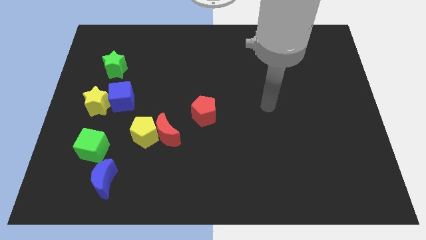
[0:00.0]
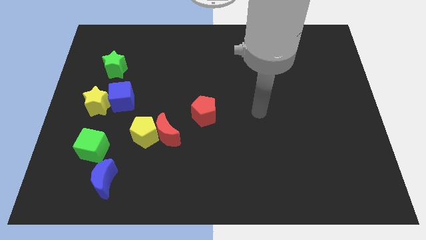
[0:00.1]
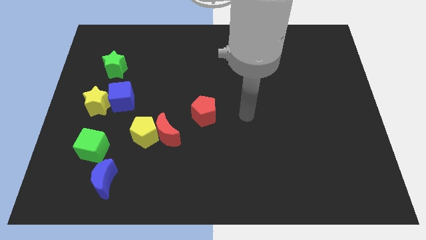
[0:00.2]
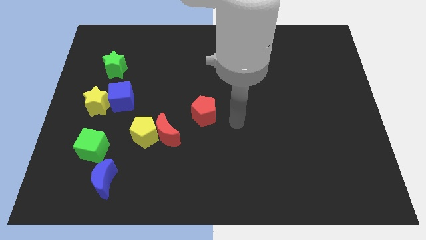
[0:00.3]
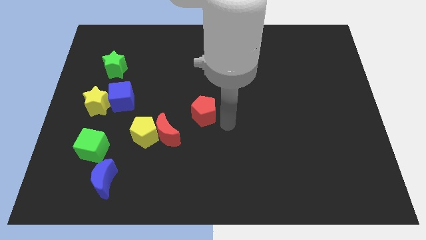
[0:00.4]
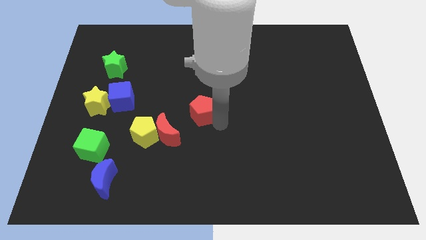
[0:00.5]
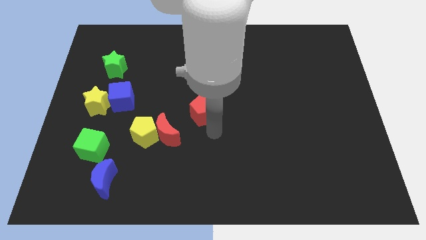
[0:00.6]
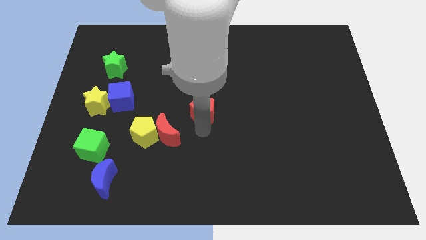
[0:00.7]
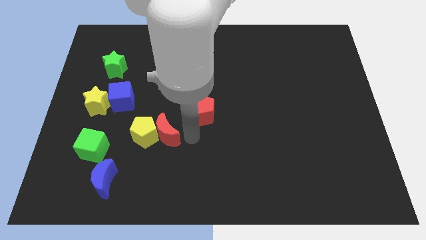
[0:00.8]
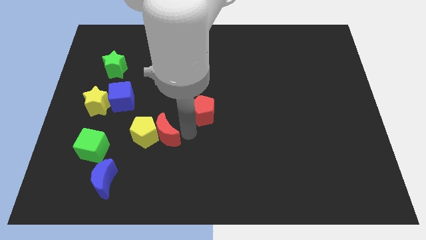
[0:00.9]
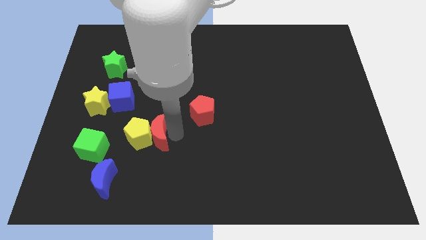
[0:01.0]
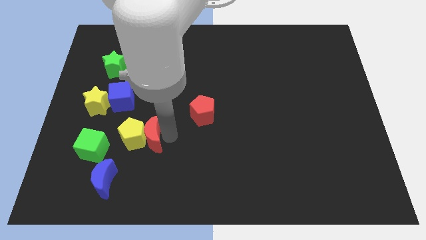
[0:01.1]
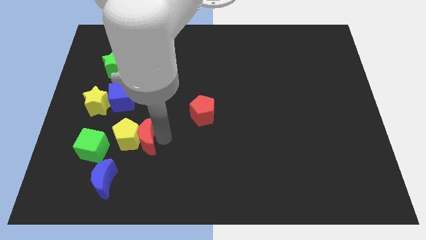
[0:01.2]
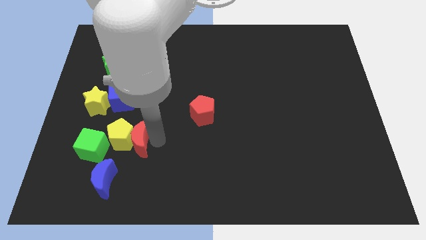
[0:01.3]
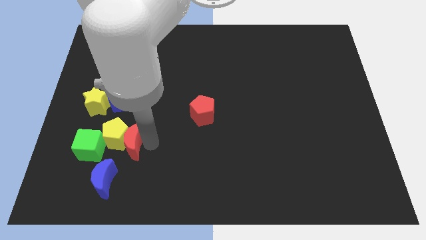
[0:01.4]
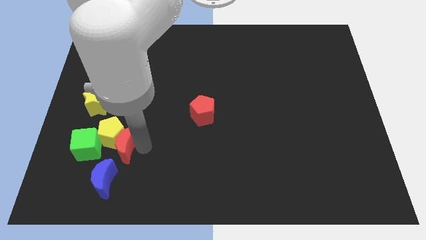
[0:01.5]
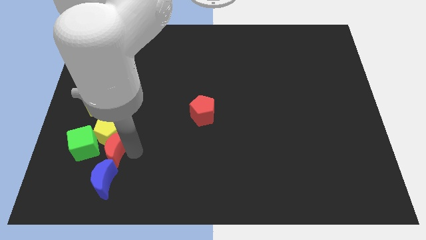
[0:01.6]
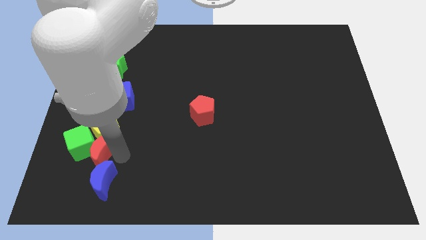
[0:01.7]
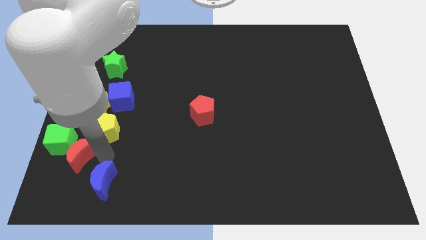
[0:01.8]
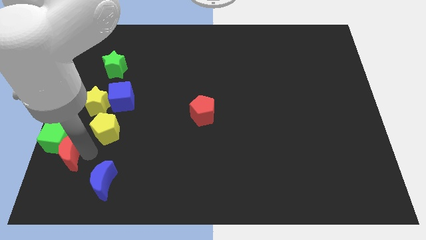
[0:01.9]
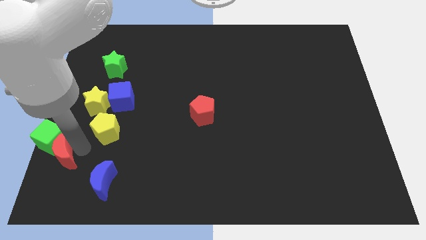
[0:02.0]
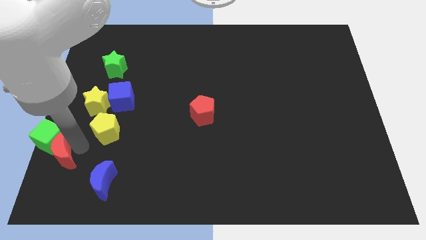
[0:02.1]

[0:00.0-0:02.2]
separate the yellow pentagon from the red moon

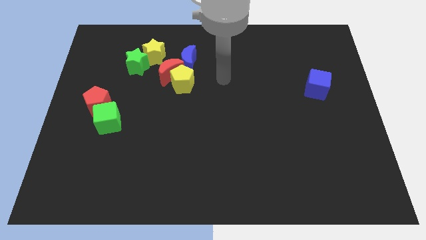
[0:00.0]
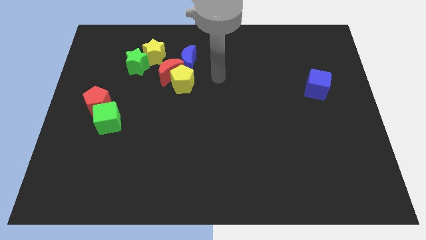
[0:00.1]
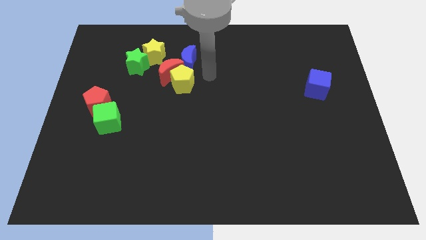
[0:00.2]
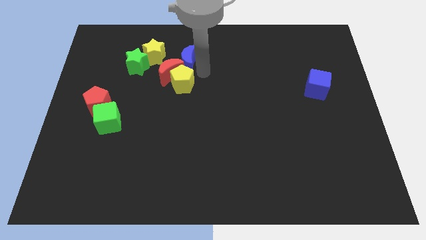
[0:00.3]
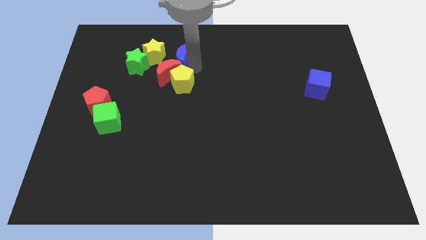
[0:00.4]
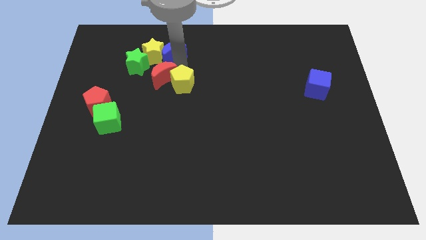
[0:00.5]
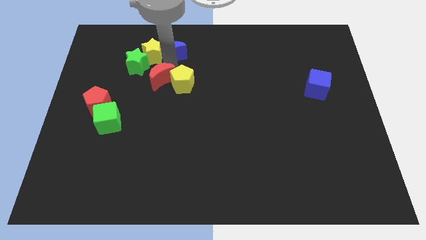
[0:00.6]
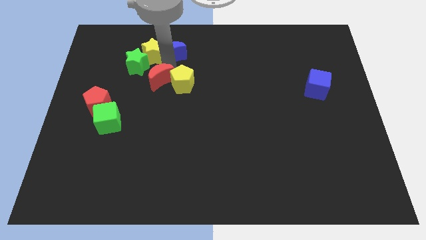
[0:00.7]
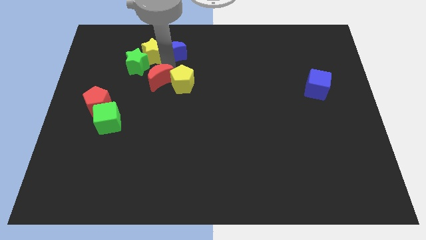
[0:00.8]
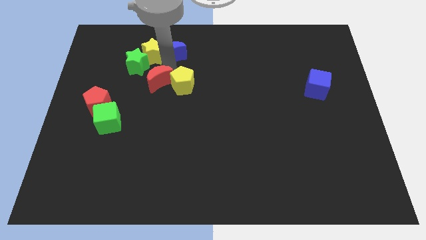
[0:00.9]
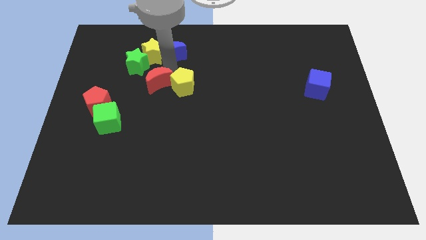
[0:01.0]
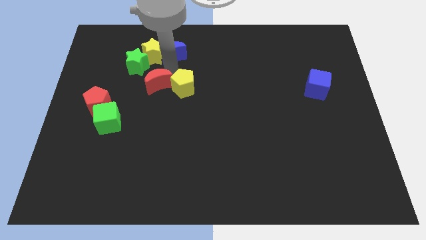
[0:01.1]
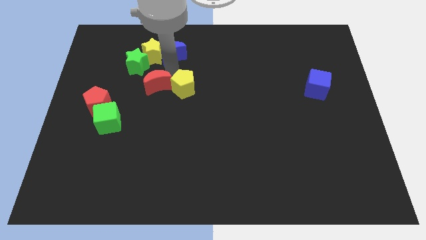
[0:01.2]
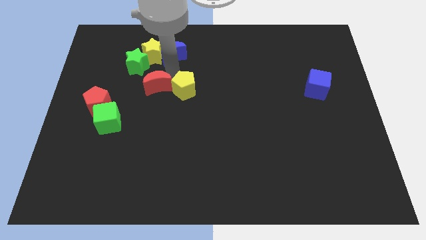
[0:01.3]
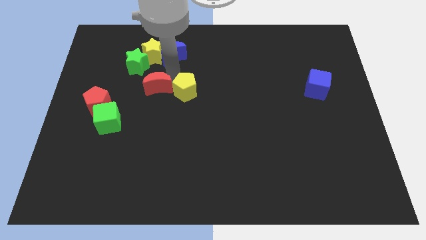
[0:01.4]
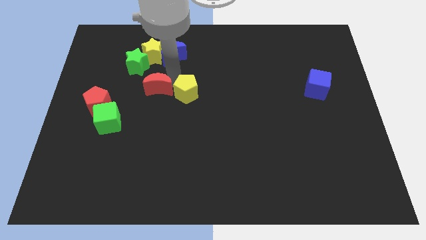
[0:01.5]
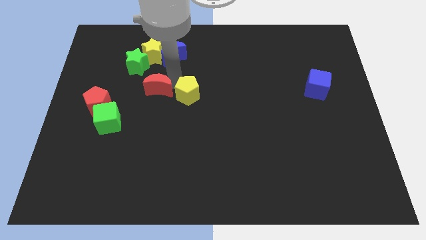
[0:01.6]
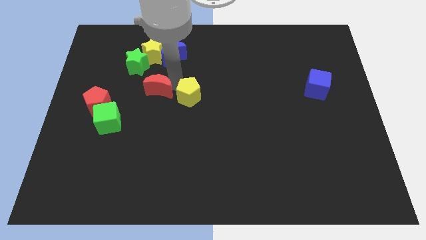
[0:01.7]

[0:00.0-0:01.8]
pull the yellow pentagon apart from the red moon and blue moon

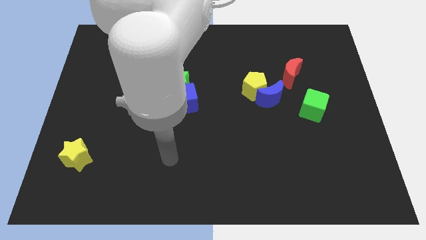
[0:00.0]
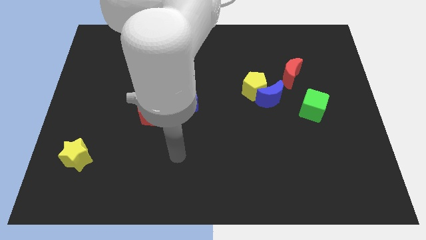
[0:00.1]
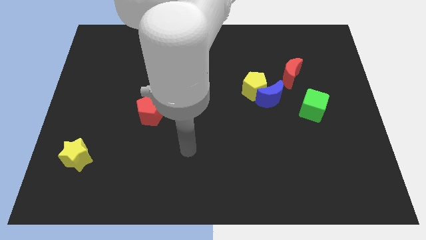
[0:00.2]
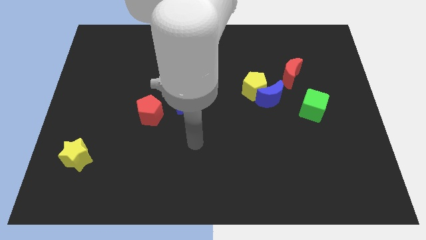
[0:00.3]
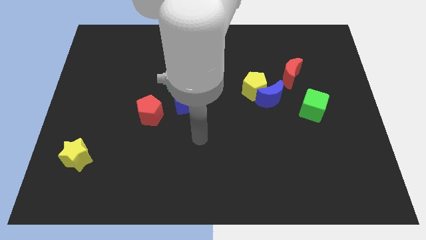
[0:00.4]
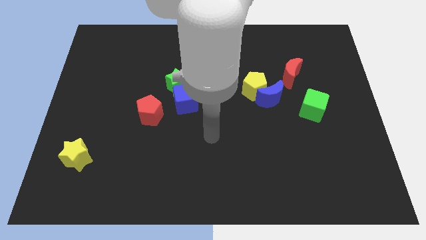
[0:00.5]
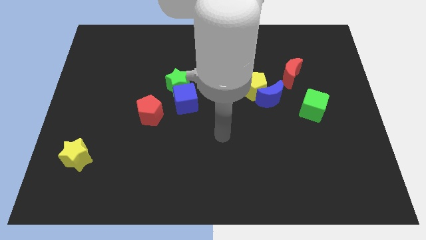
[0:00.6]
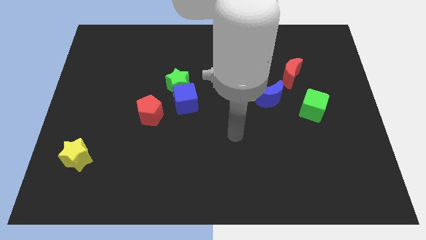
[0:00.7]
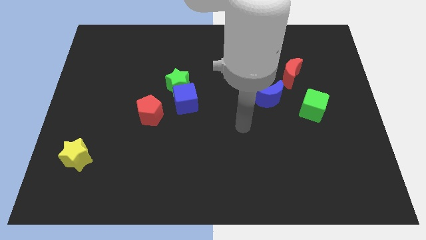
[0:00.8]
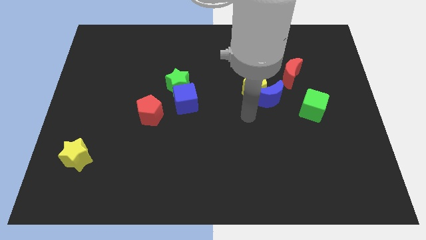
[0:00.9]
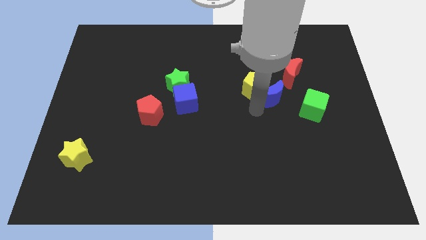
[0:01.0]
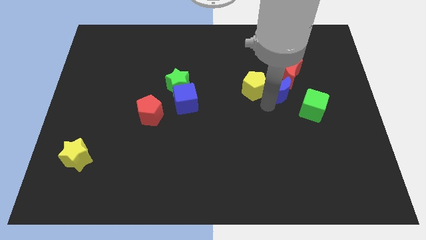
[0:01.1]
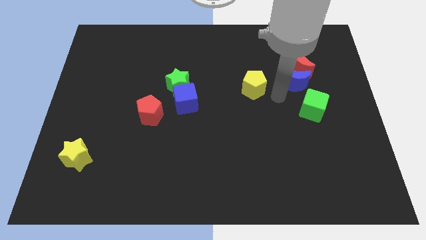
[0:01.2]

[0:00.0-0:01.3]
separate the yellow pentagon from the blue moon

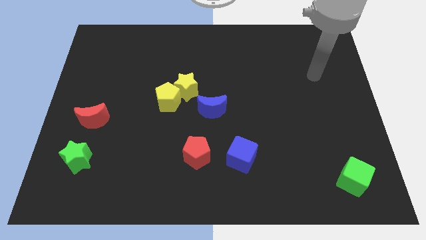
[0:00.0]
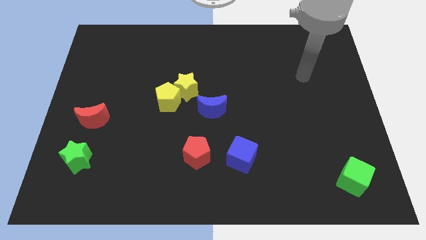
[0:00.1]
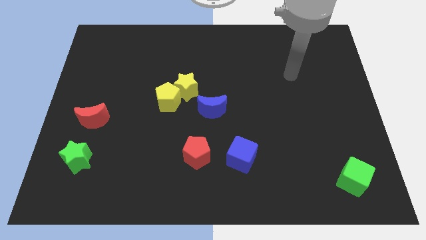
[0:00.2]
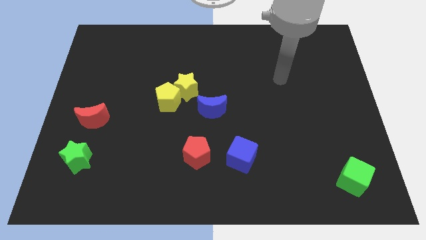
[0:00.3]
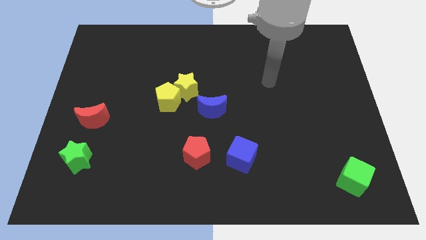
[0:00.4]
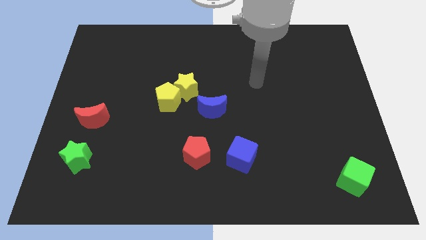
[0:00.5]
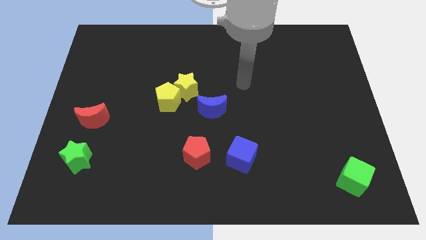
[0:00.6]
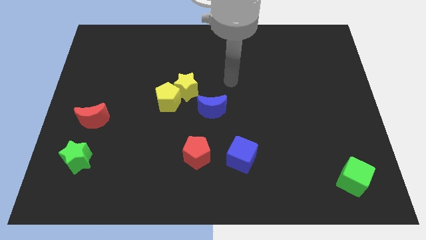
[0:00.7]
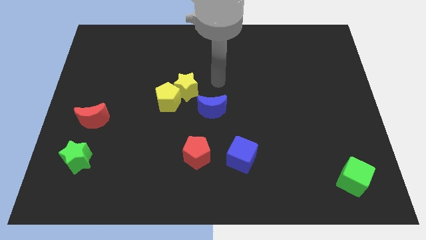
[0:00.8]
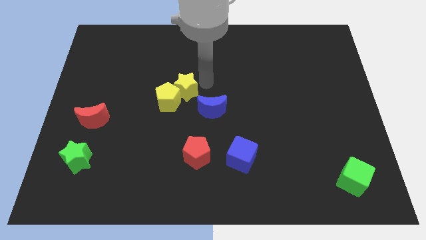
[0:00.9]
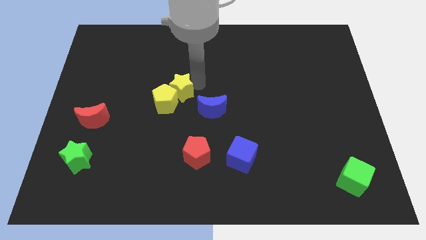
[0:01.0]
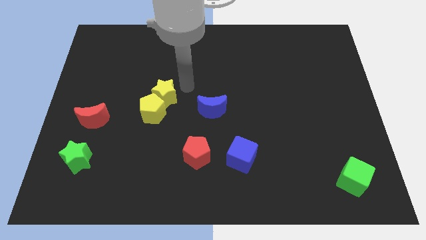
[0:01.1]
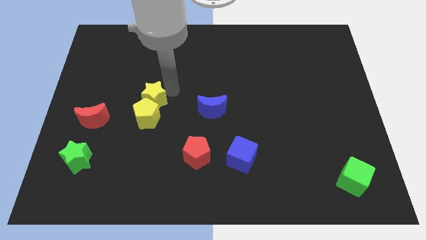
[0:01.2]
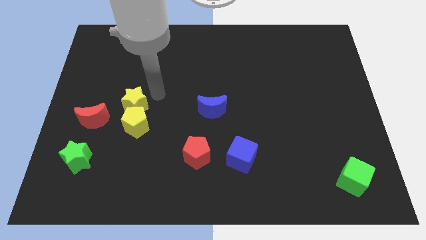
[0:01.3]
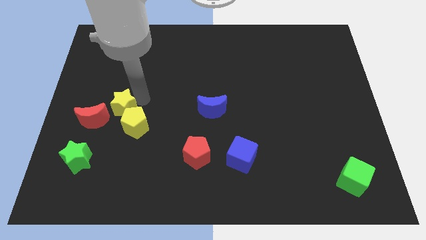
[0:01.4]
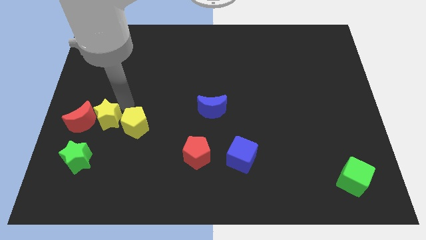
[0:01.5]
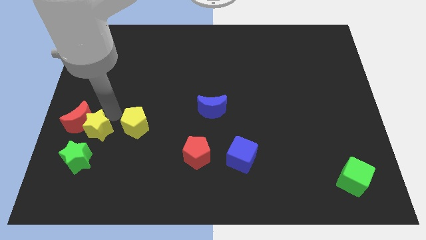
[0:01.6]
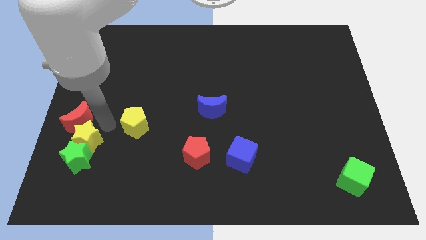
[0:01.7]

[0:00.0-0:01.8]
separate the yellow pentagon from the yellow star

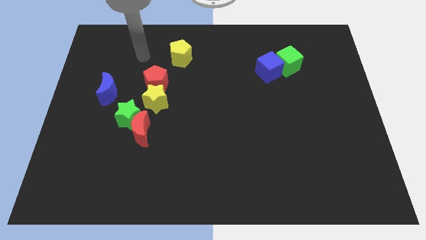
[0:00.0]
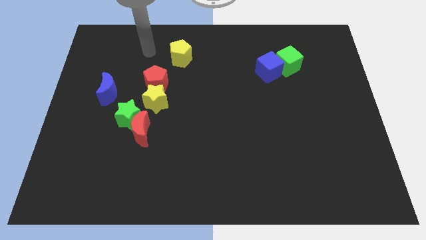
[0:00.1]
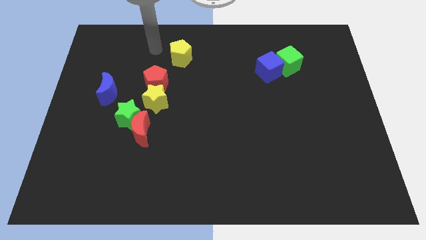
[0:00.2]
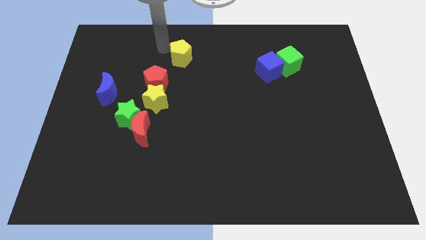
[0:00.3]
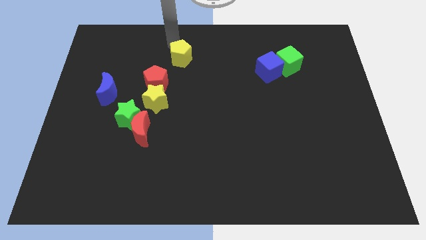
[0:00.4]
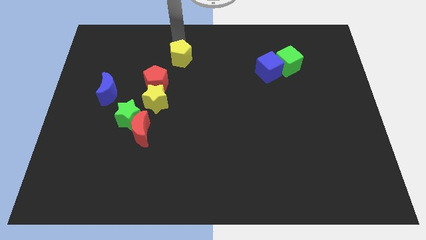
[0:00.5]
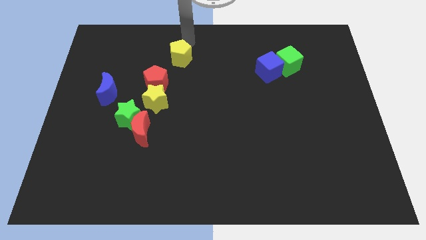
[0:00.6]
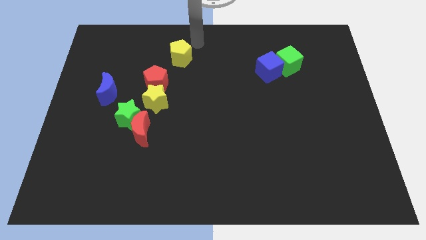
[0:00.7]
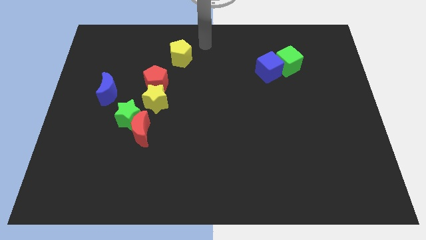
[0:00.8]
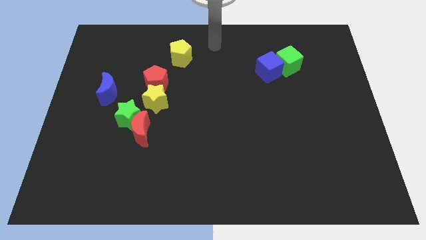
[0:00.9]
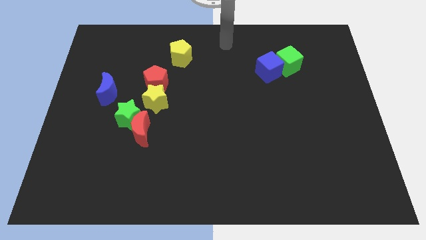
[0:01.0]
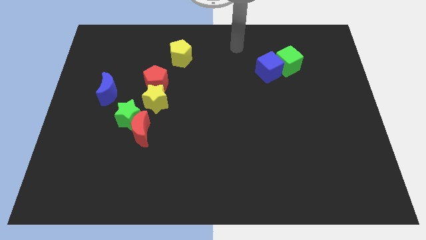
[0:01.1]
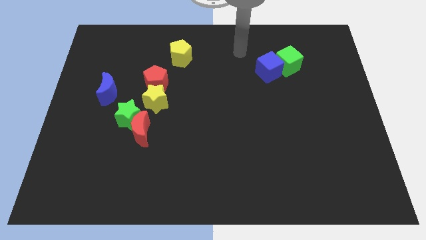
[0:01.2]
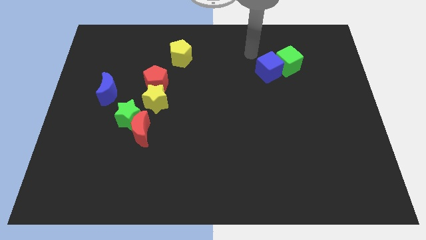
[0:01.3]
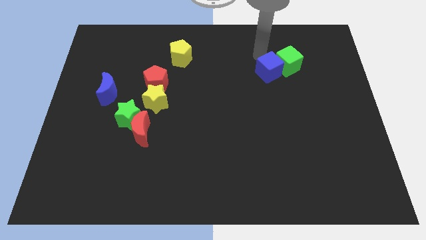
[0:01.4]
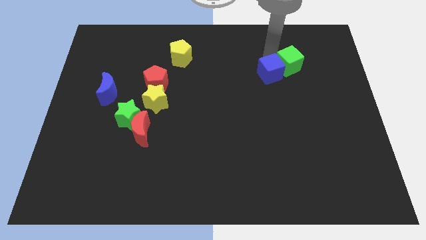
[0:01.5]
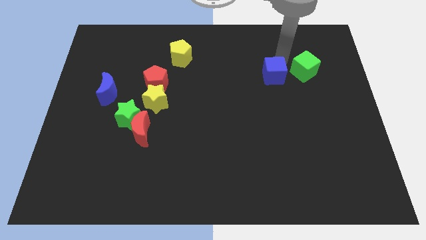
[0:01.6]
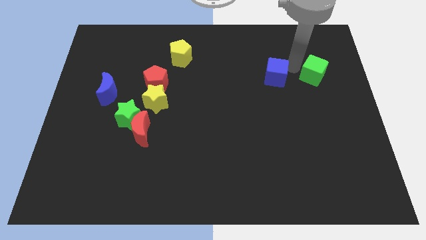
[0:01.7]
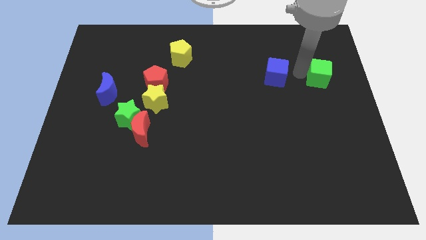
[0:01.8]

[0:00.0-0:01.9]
pull the blue cube apart from the green cube

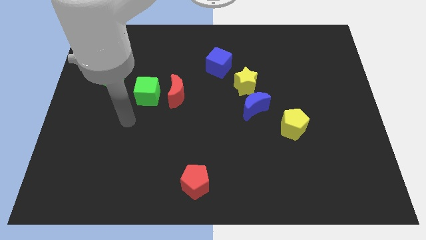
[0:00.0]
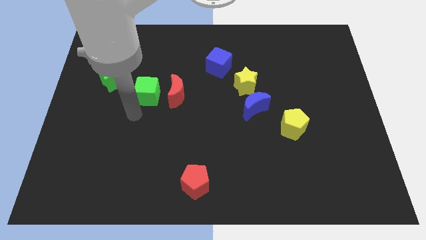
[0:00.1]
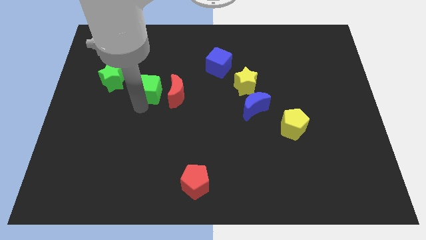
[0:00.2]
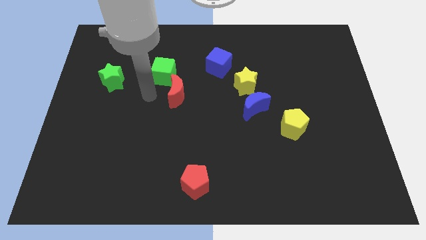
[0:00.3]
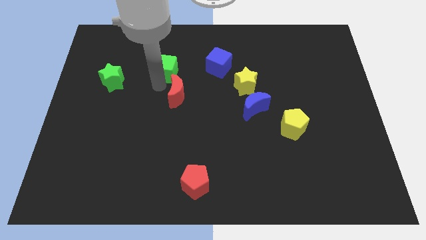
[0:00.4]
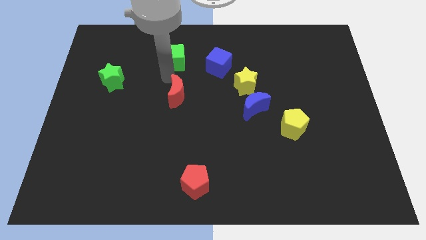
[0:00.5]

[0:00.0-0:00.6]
pull the red moon apart from the green cube
